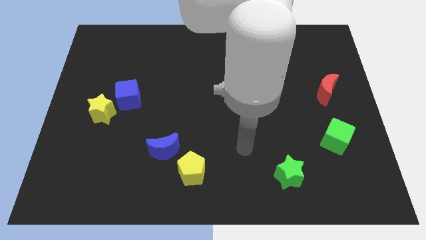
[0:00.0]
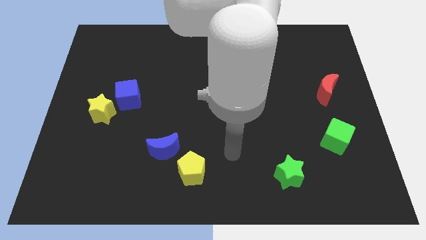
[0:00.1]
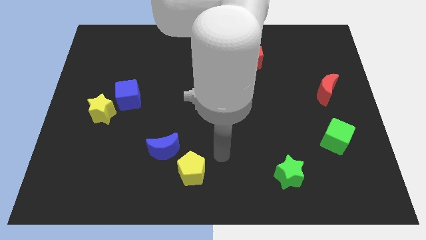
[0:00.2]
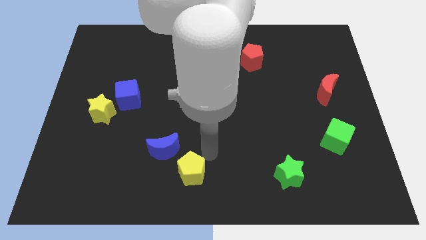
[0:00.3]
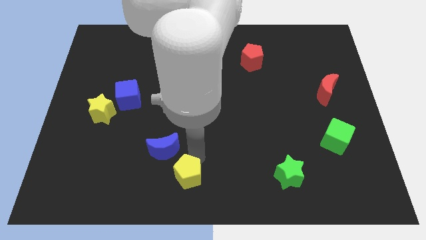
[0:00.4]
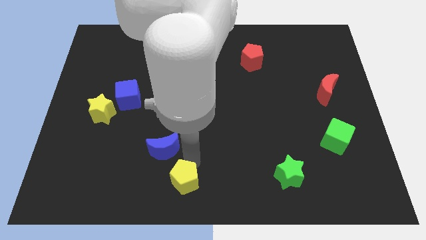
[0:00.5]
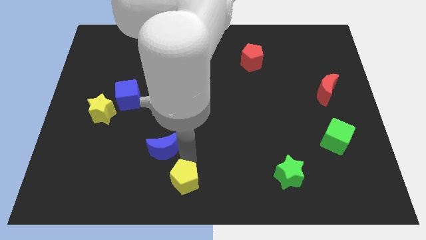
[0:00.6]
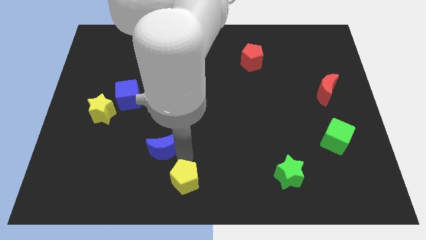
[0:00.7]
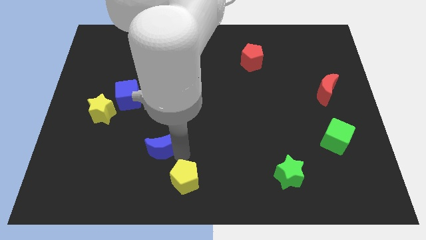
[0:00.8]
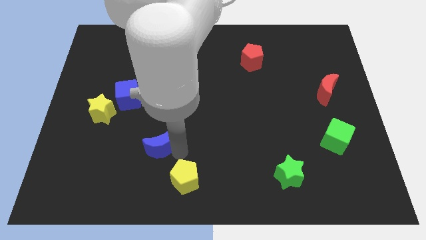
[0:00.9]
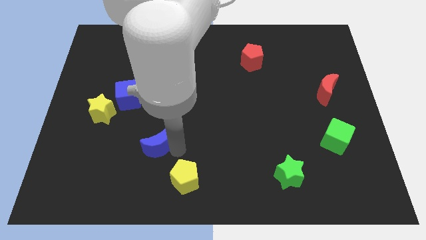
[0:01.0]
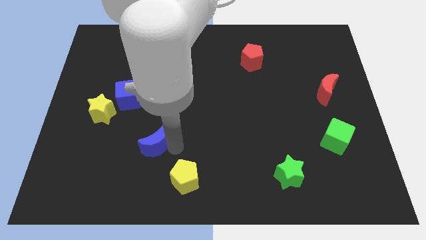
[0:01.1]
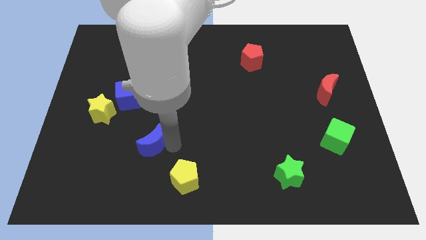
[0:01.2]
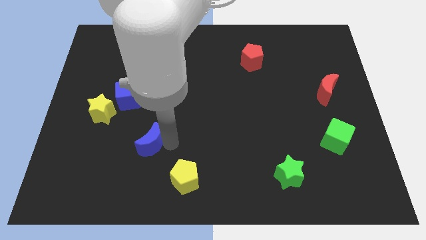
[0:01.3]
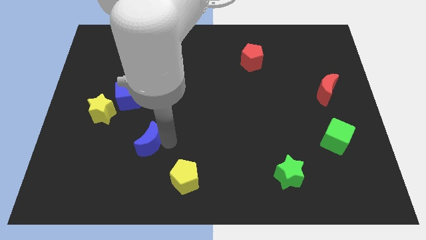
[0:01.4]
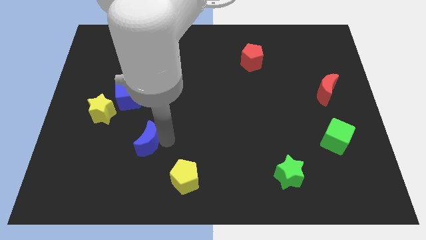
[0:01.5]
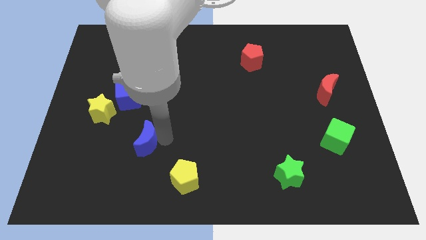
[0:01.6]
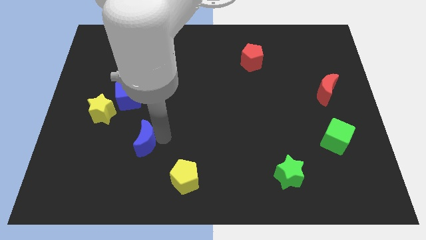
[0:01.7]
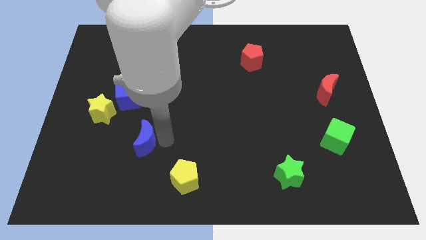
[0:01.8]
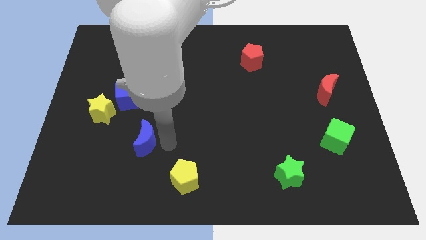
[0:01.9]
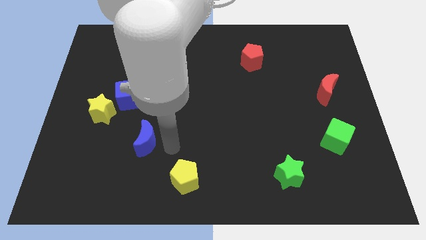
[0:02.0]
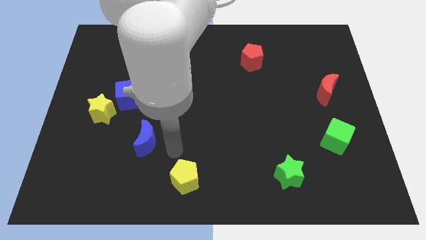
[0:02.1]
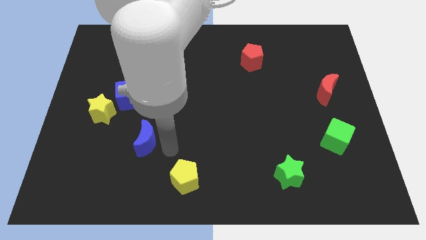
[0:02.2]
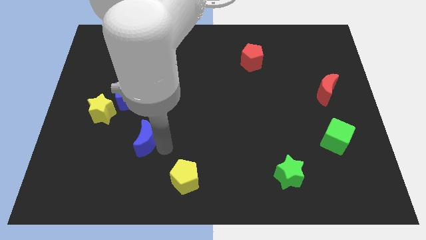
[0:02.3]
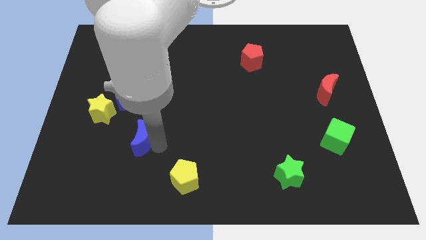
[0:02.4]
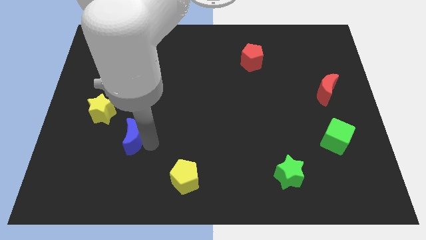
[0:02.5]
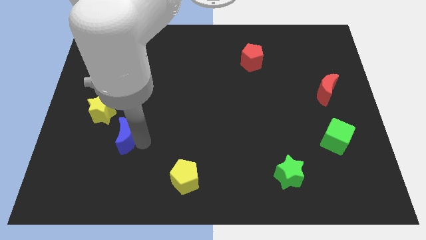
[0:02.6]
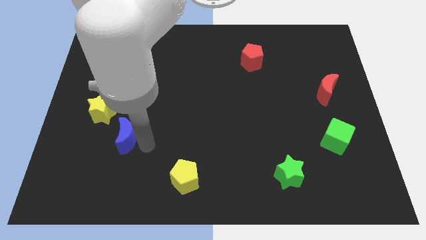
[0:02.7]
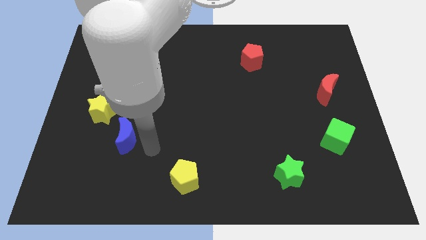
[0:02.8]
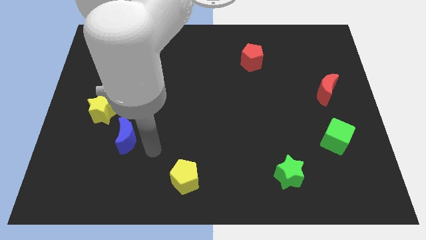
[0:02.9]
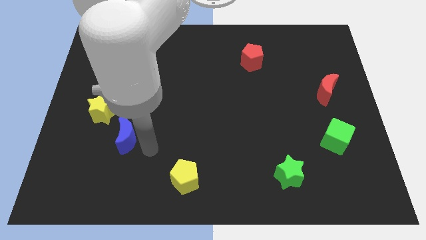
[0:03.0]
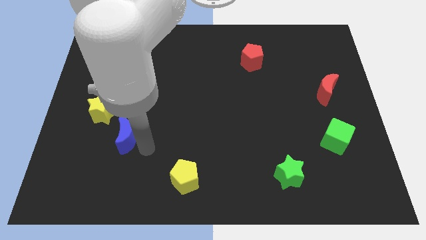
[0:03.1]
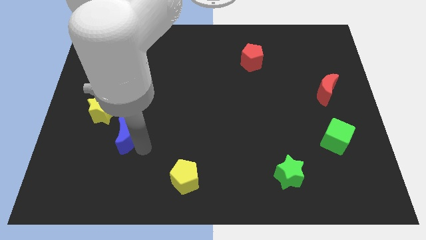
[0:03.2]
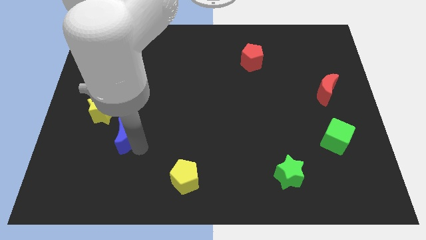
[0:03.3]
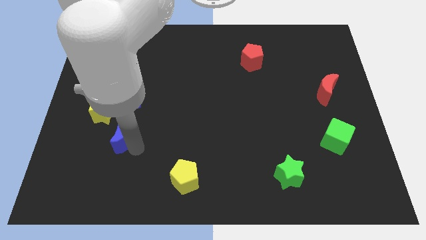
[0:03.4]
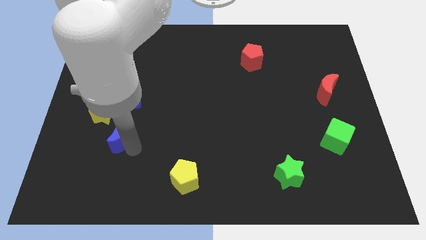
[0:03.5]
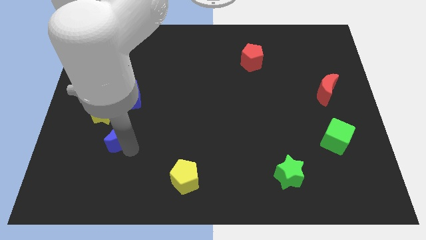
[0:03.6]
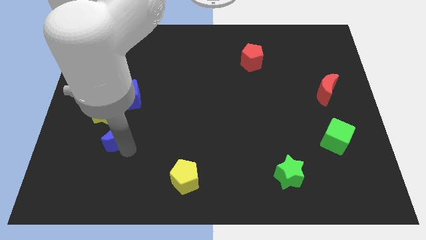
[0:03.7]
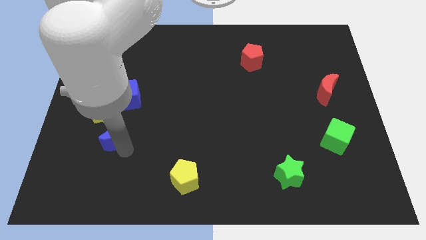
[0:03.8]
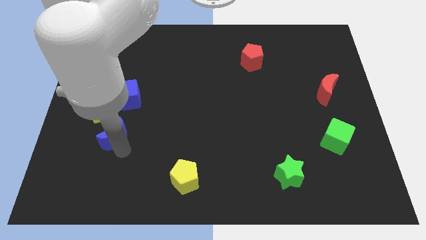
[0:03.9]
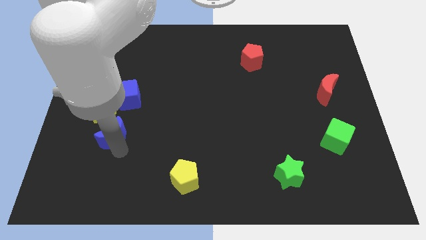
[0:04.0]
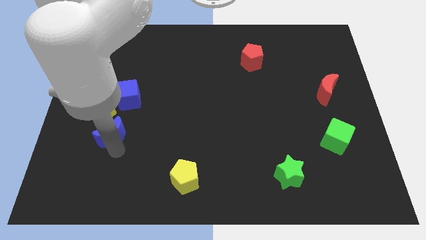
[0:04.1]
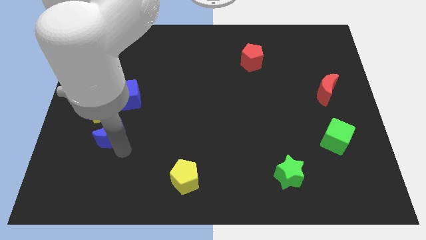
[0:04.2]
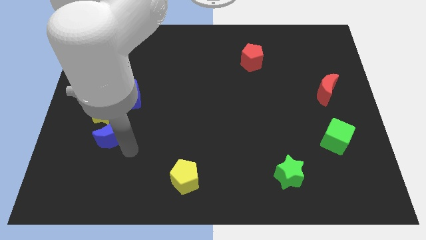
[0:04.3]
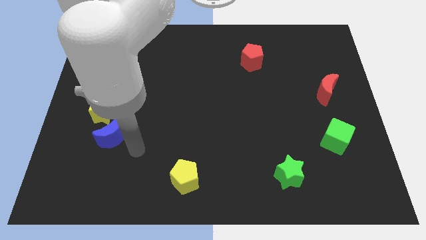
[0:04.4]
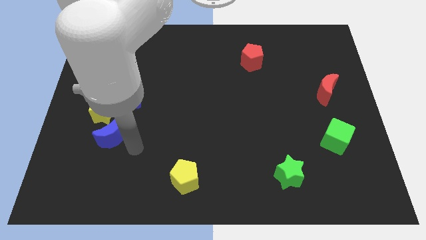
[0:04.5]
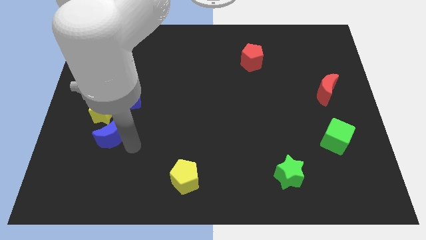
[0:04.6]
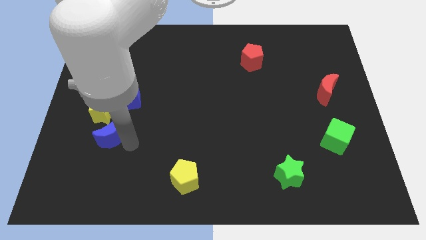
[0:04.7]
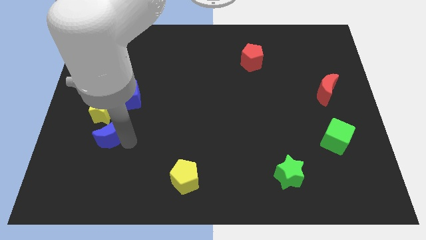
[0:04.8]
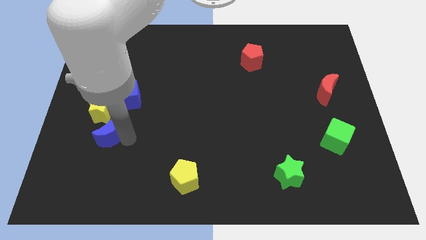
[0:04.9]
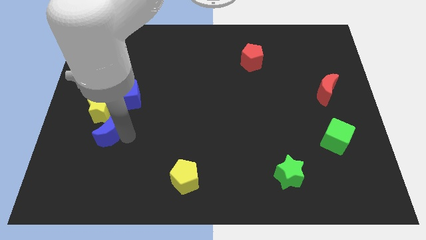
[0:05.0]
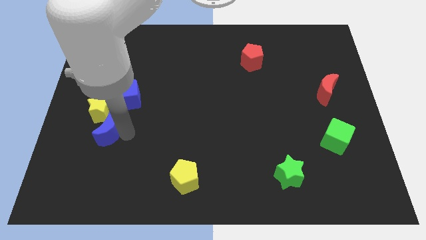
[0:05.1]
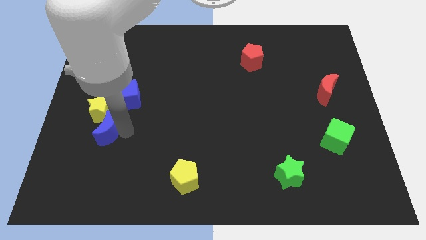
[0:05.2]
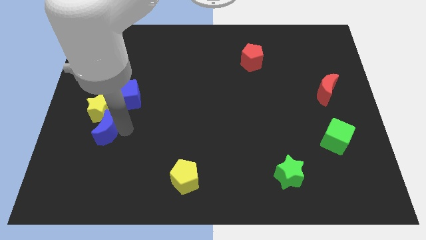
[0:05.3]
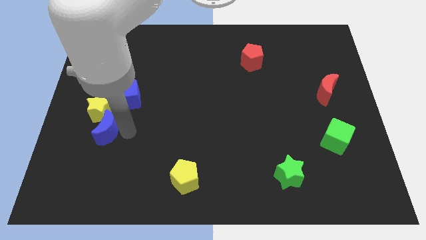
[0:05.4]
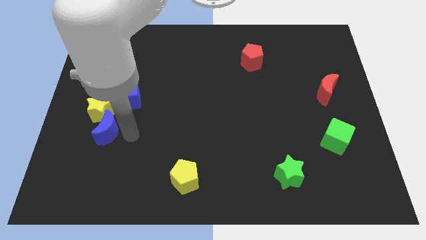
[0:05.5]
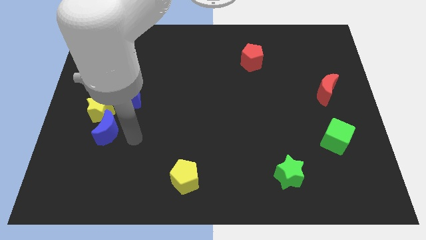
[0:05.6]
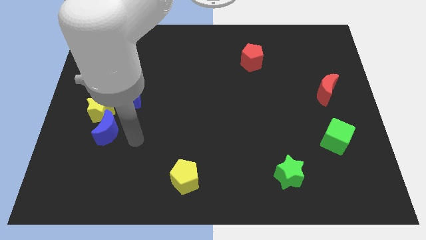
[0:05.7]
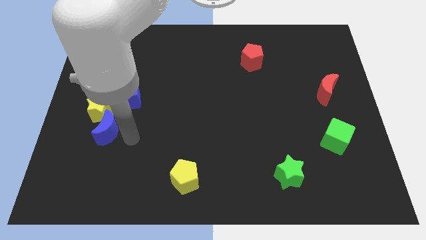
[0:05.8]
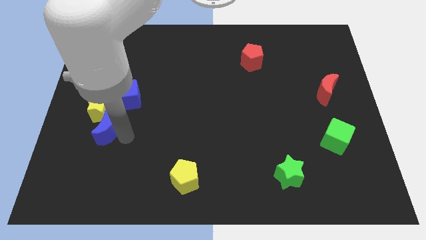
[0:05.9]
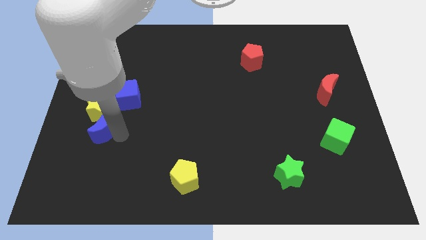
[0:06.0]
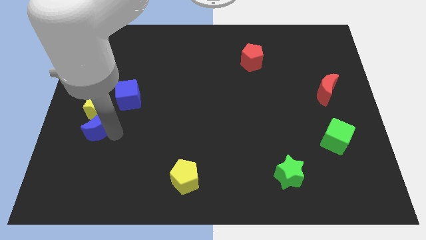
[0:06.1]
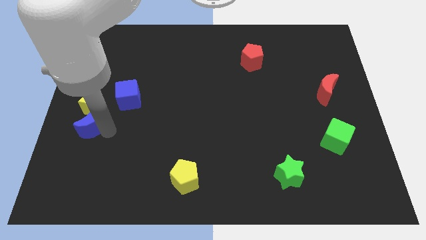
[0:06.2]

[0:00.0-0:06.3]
slide the blue moon to the left side
